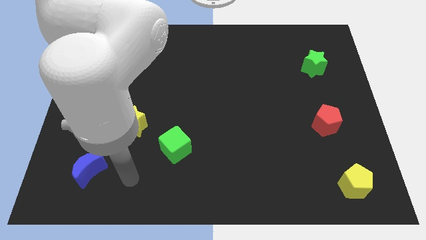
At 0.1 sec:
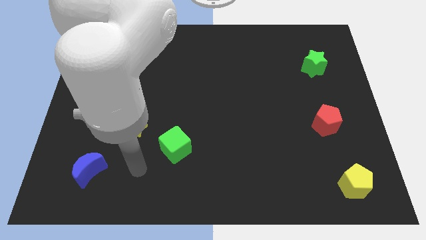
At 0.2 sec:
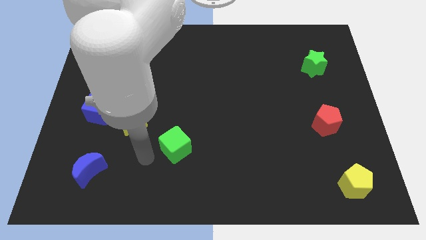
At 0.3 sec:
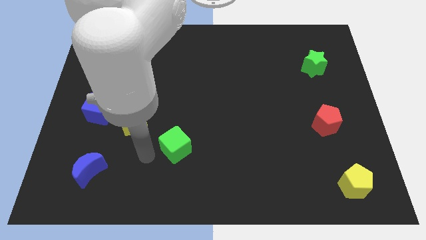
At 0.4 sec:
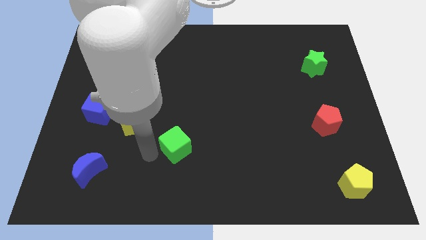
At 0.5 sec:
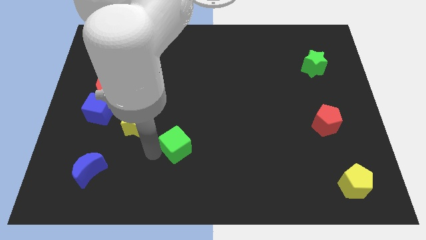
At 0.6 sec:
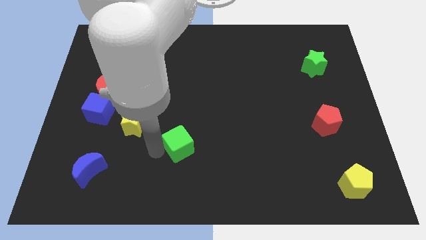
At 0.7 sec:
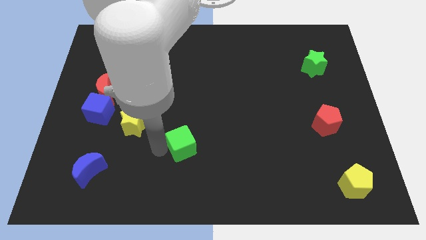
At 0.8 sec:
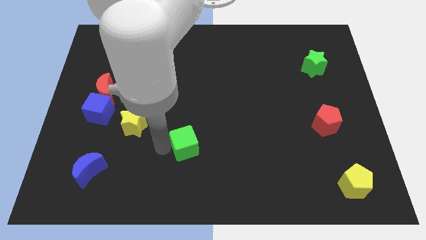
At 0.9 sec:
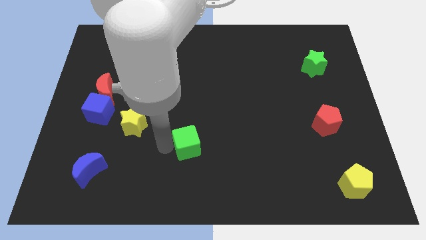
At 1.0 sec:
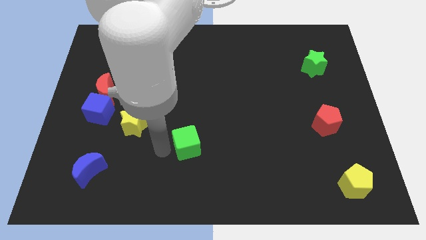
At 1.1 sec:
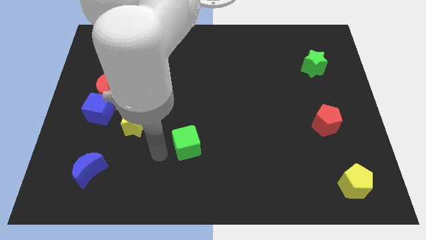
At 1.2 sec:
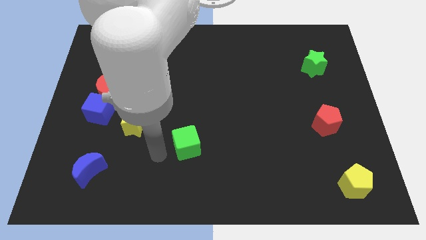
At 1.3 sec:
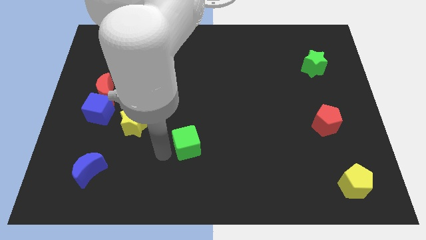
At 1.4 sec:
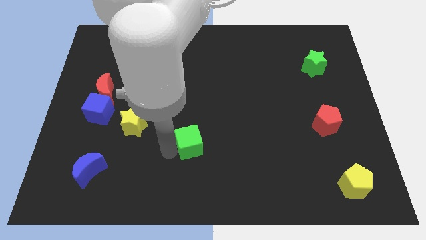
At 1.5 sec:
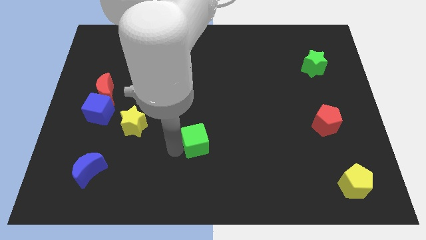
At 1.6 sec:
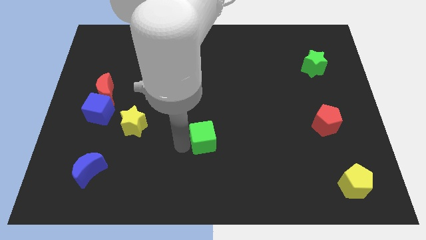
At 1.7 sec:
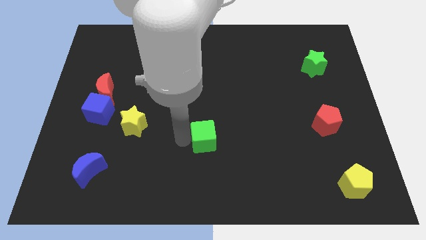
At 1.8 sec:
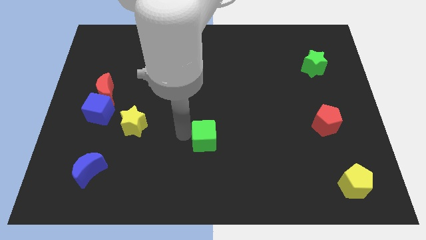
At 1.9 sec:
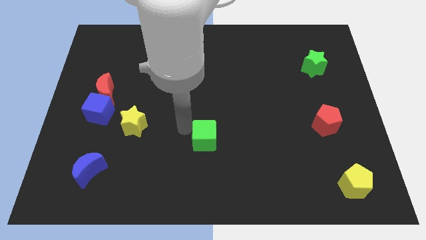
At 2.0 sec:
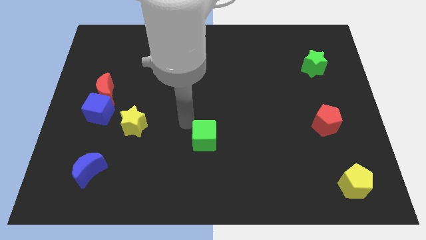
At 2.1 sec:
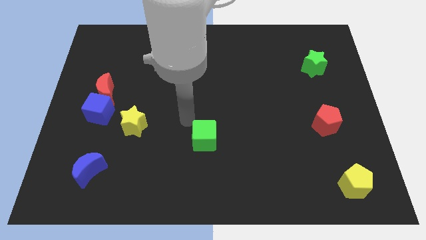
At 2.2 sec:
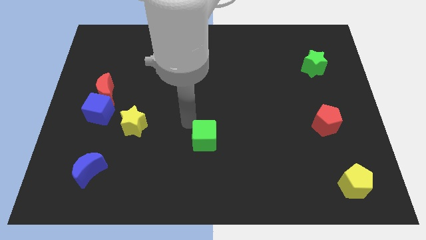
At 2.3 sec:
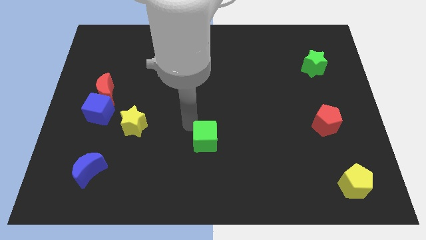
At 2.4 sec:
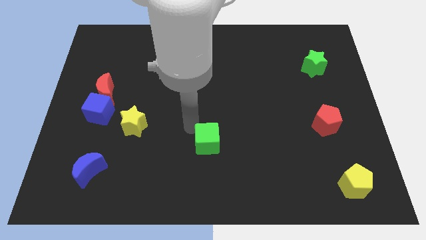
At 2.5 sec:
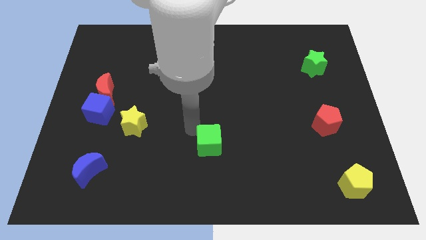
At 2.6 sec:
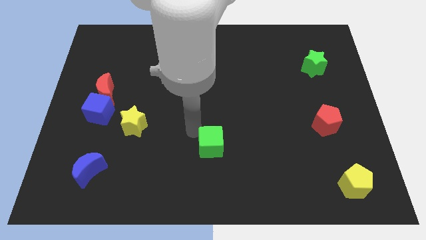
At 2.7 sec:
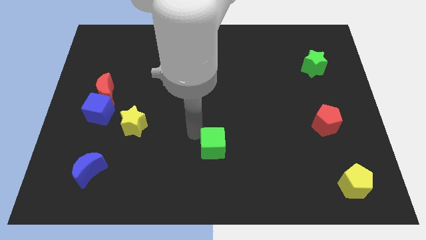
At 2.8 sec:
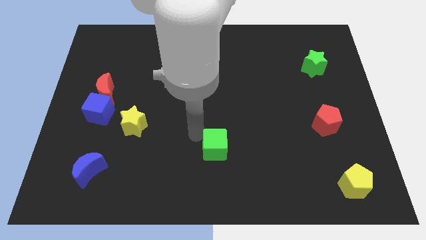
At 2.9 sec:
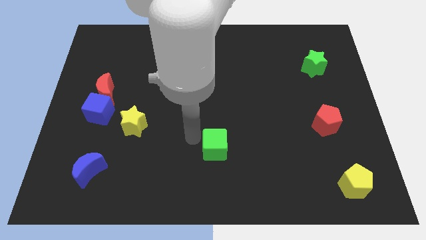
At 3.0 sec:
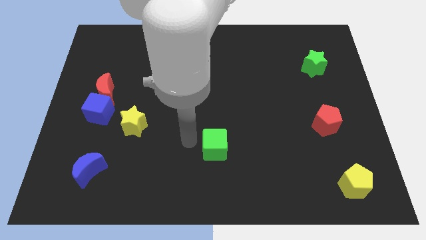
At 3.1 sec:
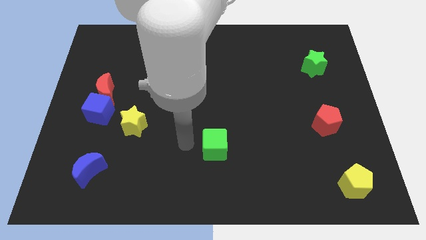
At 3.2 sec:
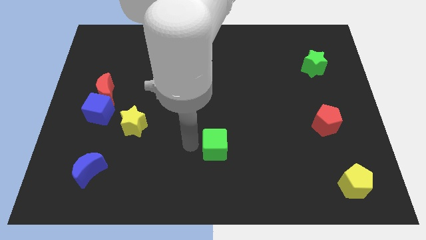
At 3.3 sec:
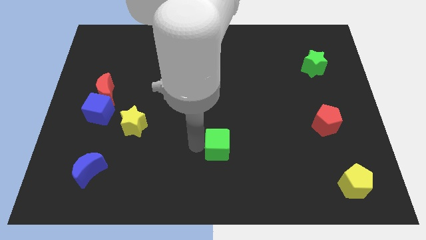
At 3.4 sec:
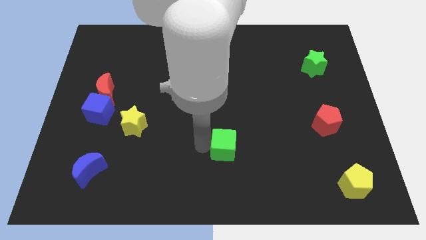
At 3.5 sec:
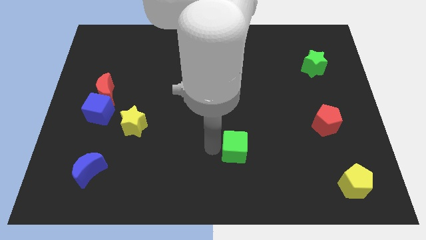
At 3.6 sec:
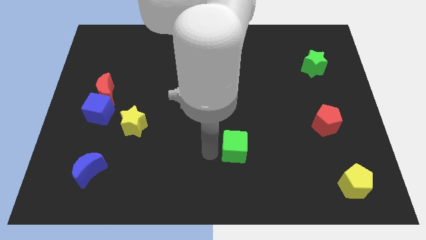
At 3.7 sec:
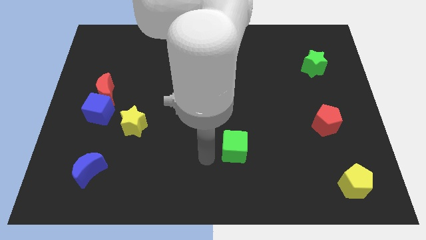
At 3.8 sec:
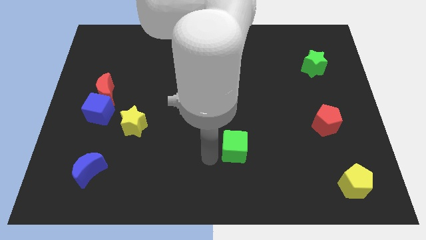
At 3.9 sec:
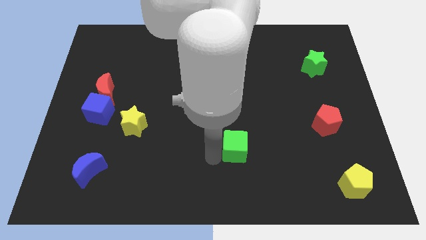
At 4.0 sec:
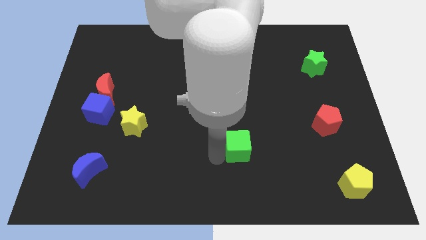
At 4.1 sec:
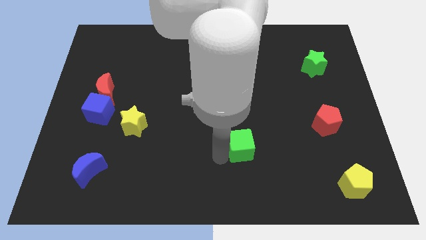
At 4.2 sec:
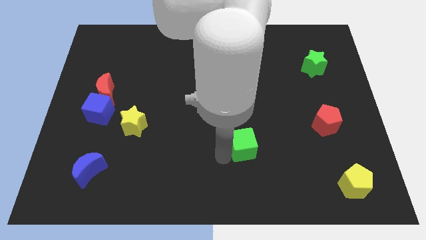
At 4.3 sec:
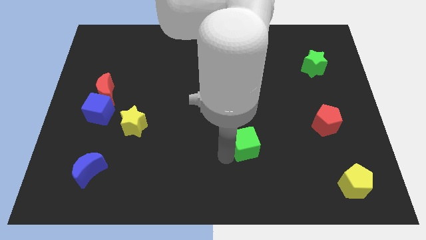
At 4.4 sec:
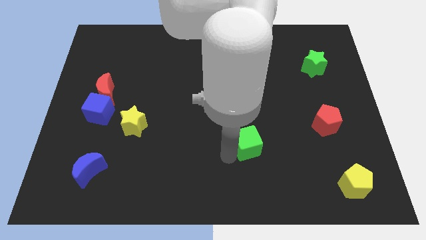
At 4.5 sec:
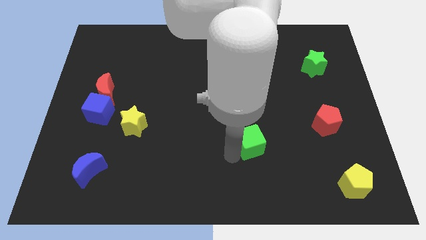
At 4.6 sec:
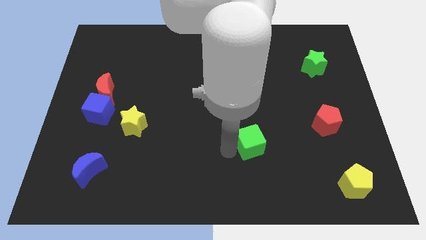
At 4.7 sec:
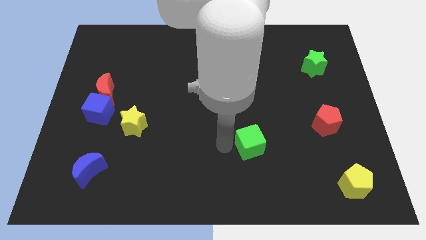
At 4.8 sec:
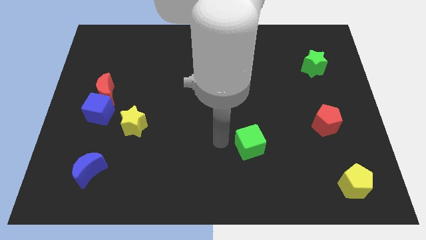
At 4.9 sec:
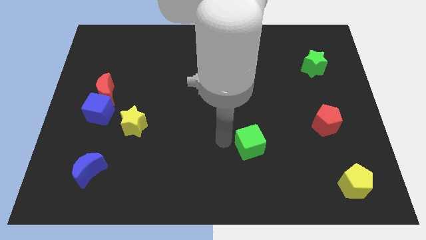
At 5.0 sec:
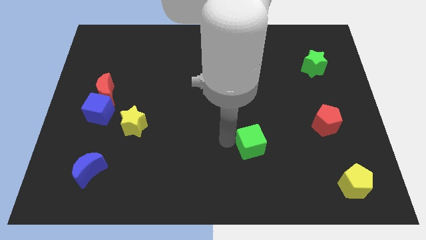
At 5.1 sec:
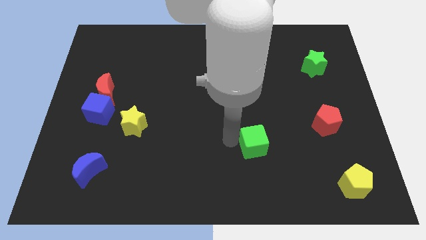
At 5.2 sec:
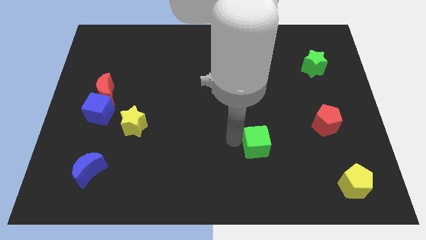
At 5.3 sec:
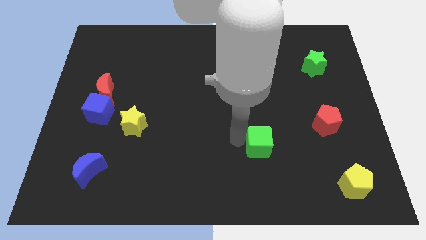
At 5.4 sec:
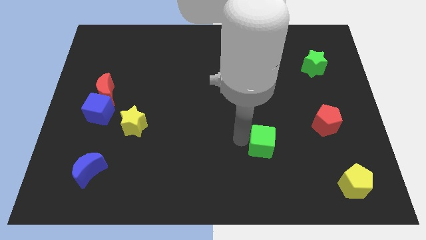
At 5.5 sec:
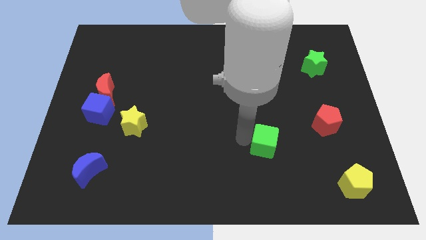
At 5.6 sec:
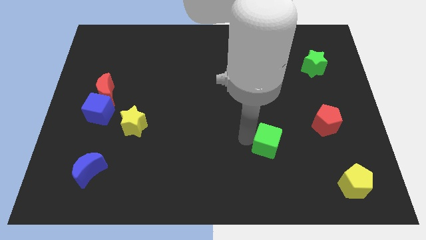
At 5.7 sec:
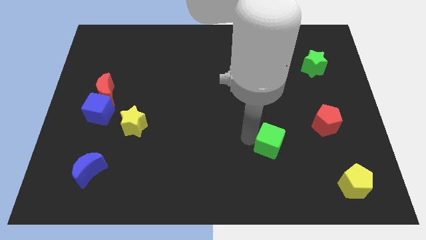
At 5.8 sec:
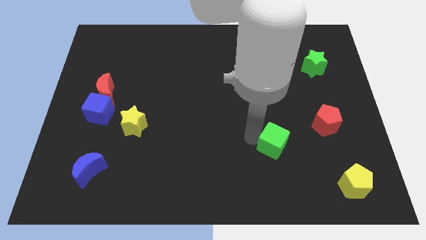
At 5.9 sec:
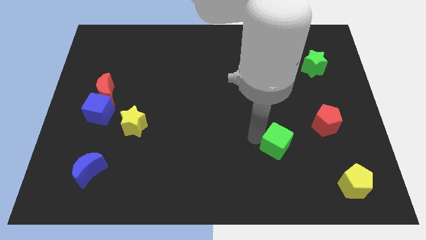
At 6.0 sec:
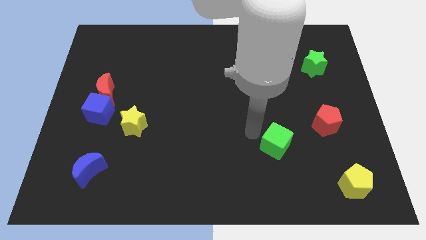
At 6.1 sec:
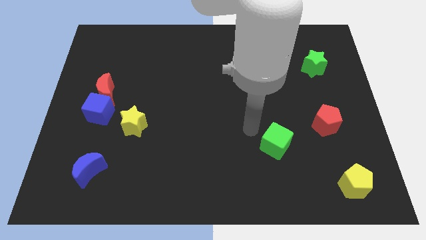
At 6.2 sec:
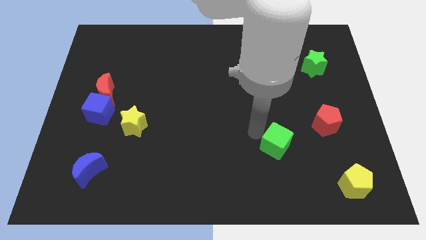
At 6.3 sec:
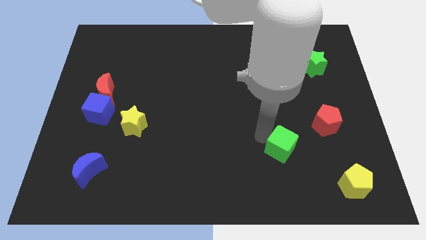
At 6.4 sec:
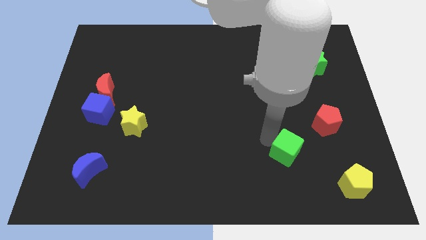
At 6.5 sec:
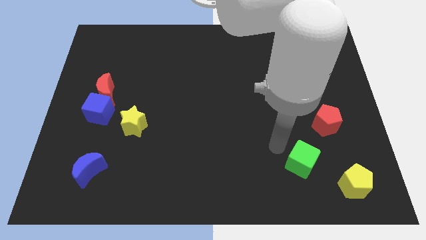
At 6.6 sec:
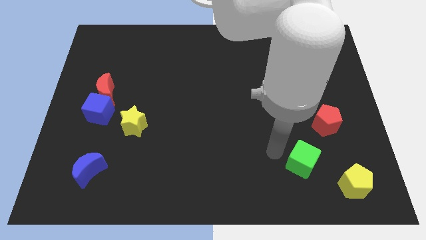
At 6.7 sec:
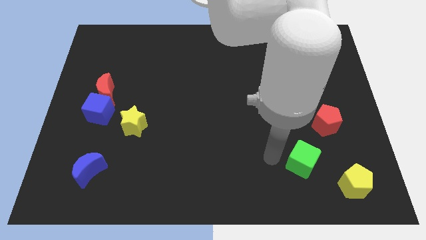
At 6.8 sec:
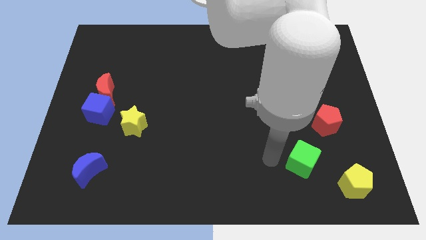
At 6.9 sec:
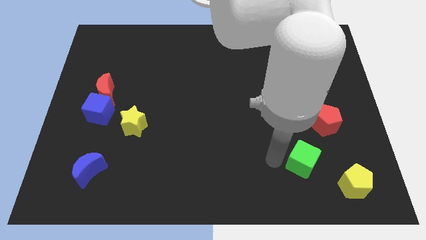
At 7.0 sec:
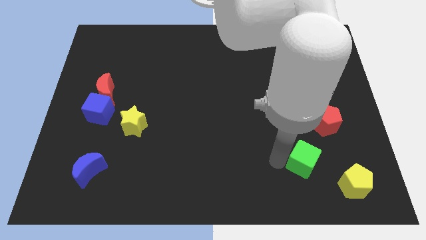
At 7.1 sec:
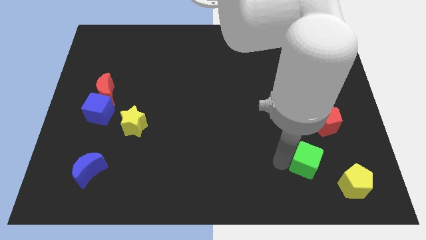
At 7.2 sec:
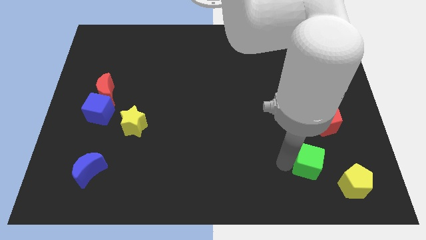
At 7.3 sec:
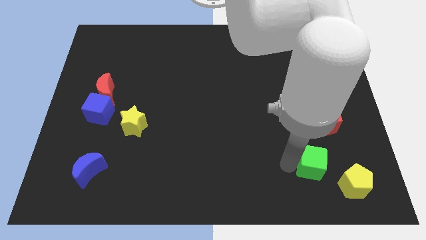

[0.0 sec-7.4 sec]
move the green cube to the bottom side of the red pentagon
